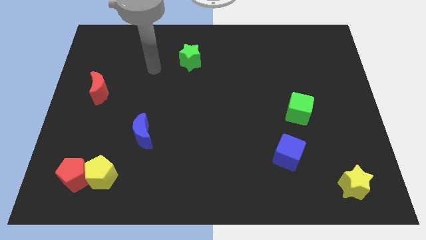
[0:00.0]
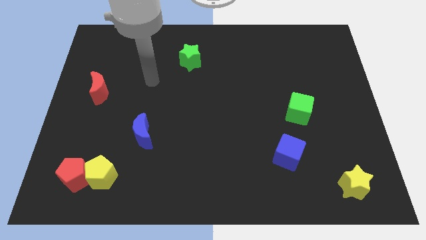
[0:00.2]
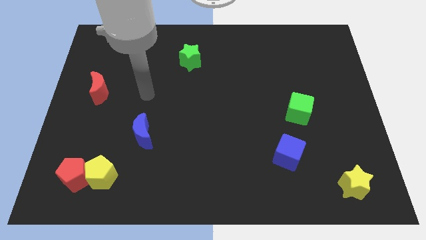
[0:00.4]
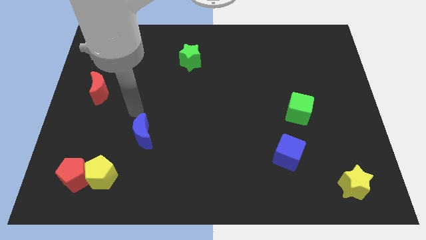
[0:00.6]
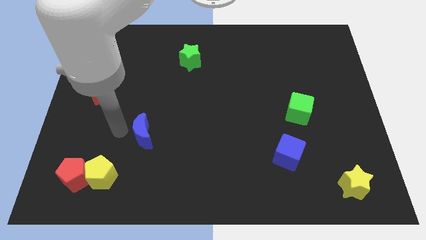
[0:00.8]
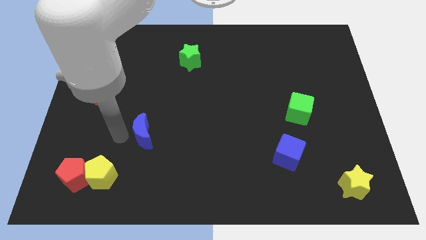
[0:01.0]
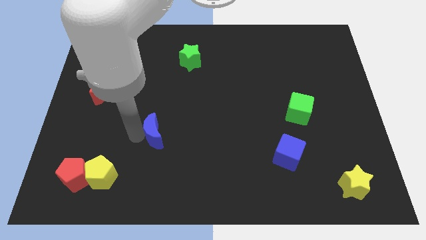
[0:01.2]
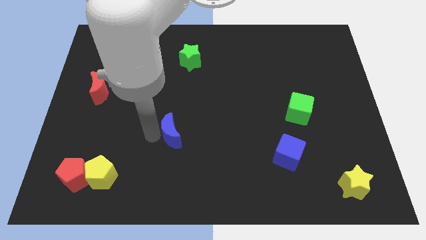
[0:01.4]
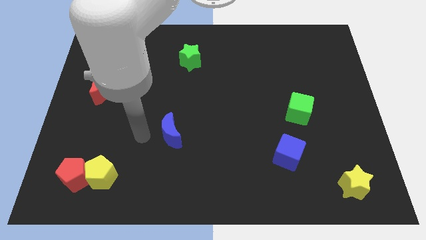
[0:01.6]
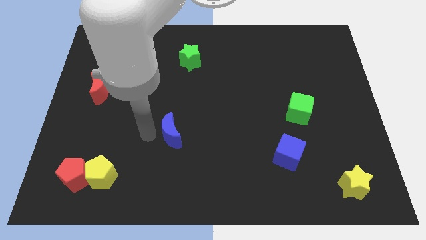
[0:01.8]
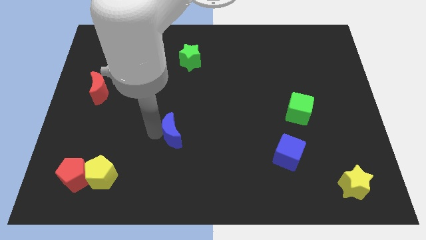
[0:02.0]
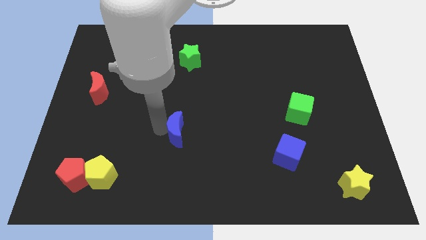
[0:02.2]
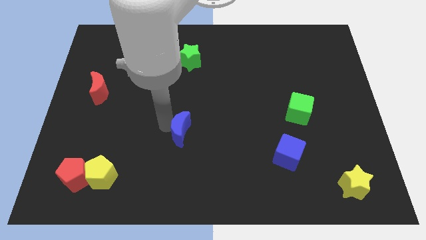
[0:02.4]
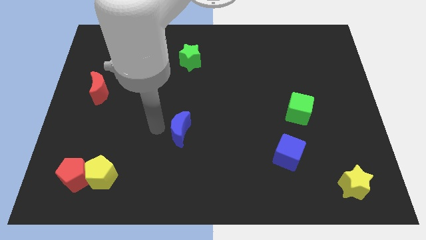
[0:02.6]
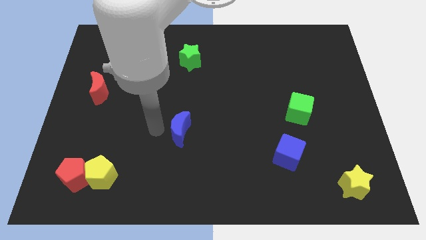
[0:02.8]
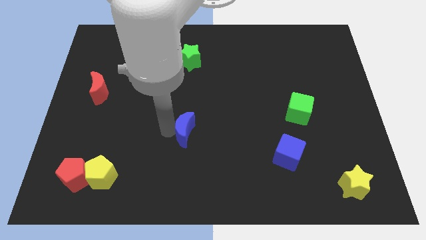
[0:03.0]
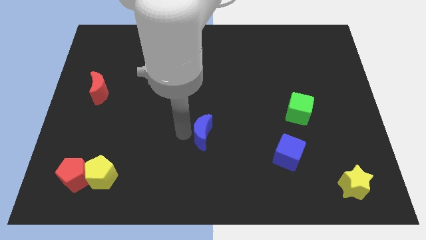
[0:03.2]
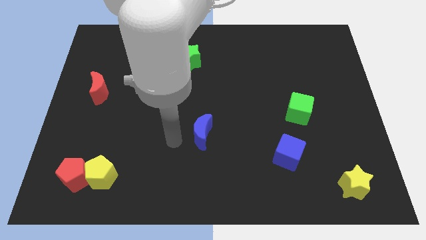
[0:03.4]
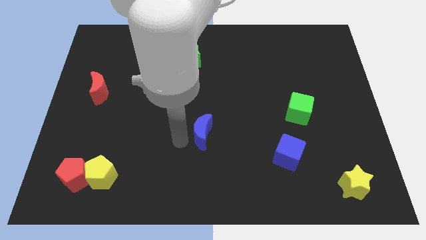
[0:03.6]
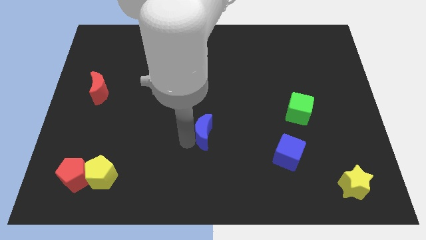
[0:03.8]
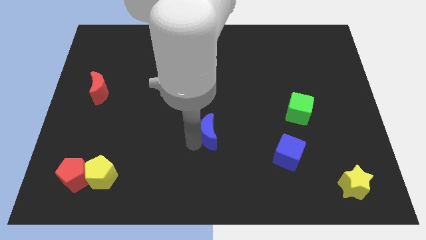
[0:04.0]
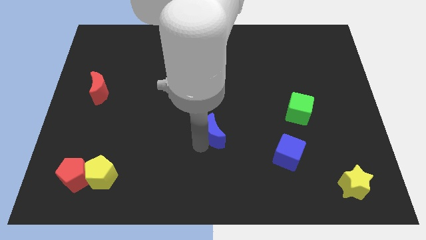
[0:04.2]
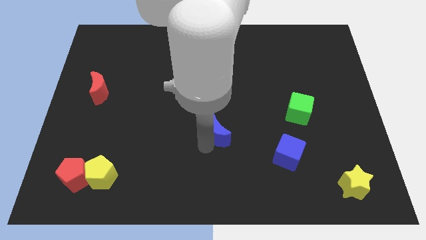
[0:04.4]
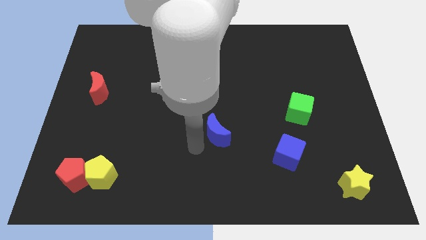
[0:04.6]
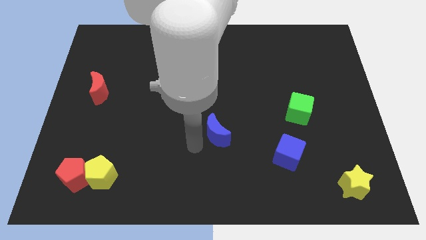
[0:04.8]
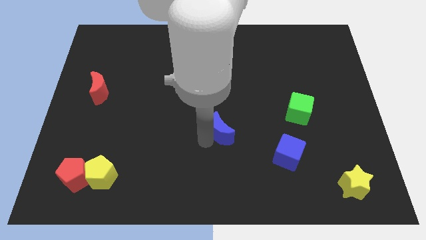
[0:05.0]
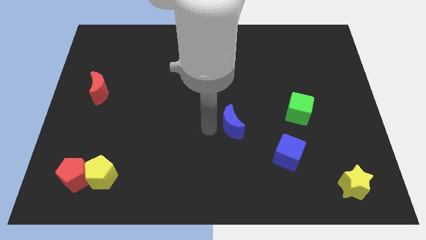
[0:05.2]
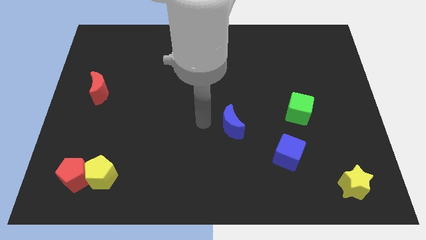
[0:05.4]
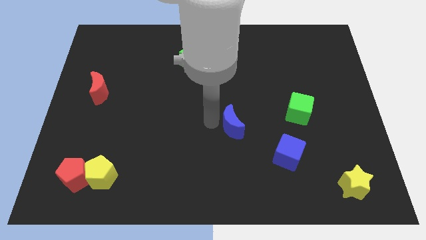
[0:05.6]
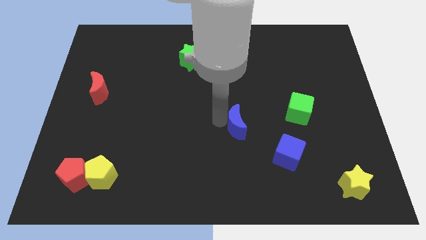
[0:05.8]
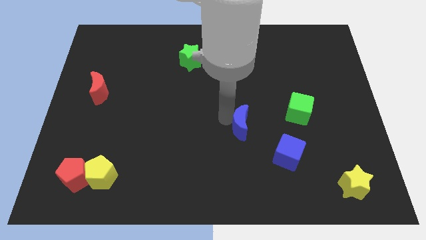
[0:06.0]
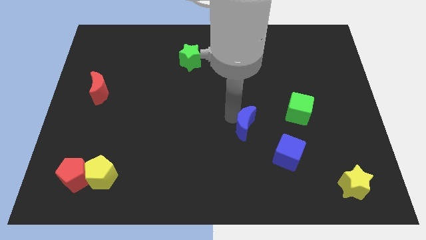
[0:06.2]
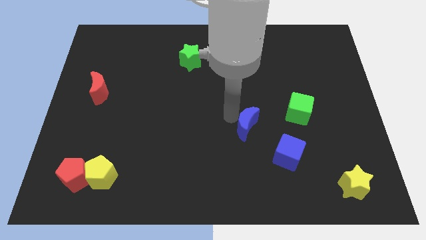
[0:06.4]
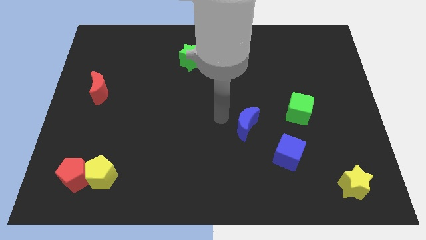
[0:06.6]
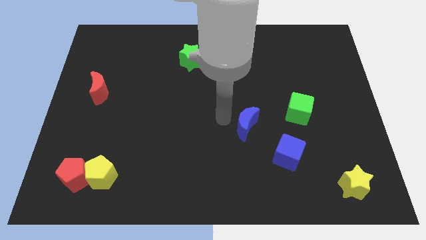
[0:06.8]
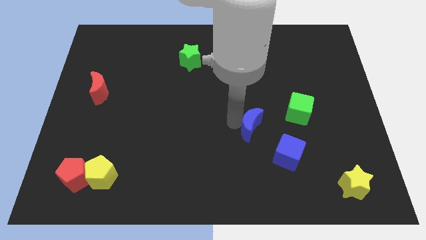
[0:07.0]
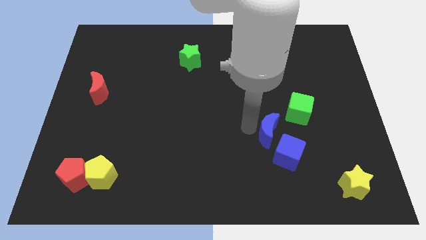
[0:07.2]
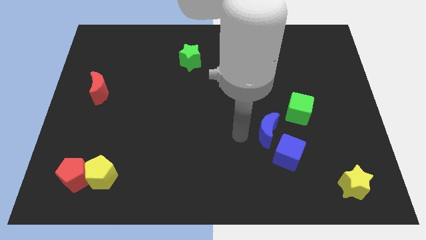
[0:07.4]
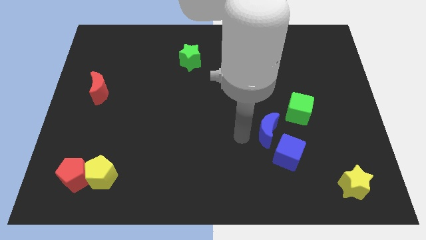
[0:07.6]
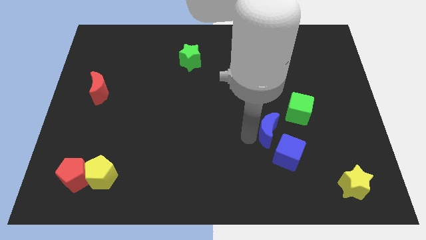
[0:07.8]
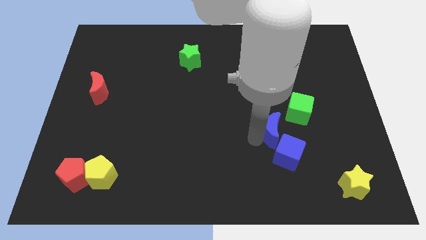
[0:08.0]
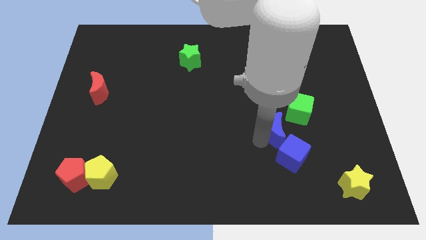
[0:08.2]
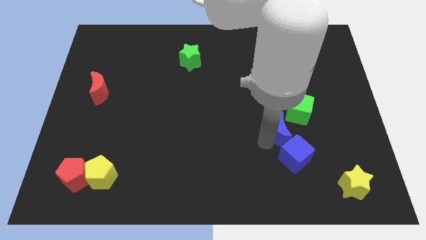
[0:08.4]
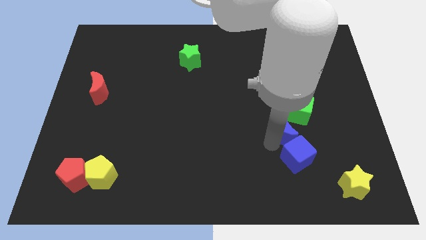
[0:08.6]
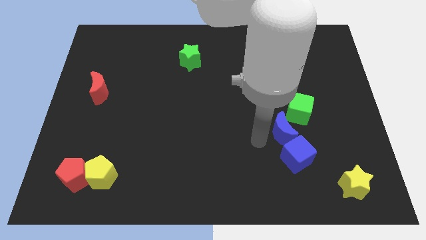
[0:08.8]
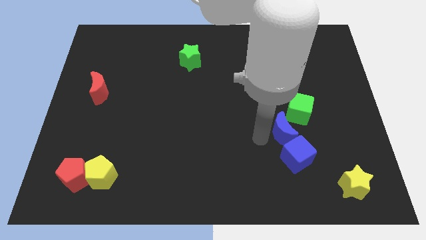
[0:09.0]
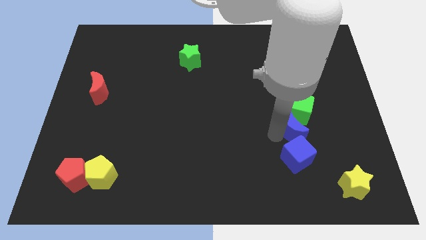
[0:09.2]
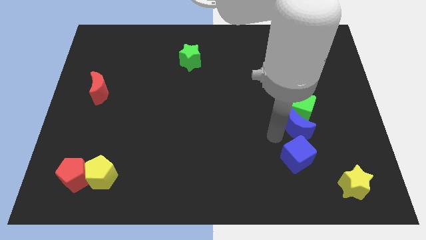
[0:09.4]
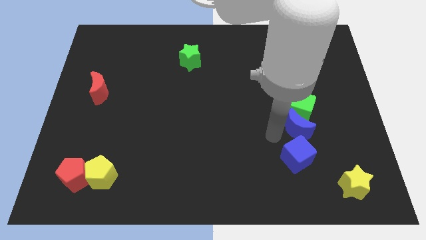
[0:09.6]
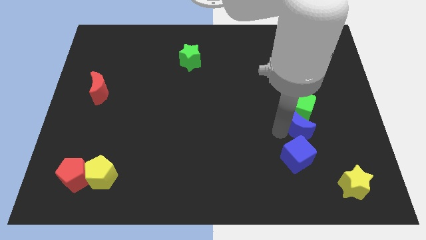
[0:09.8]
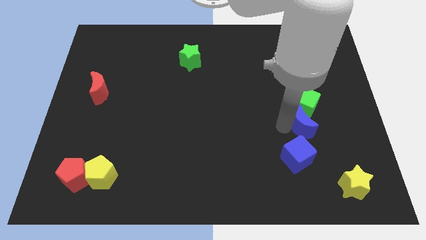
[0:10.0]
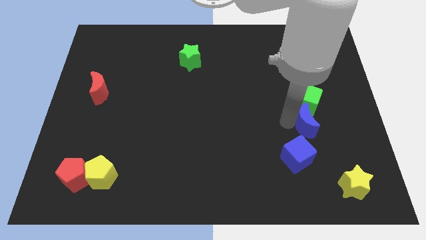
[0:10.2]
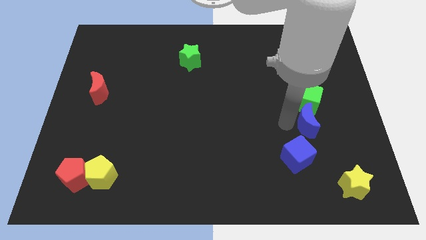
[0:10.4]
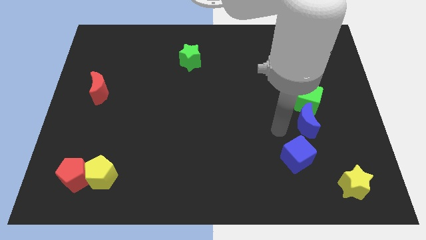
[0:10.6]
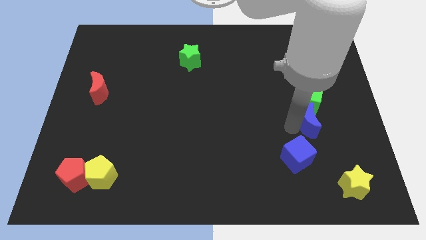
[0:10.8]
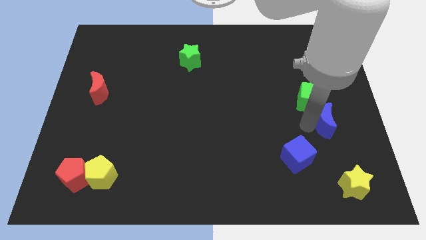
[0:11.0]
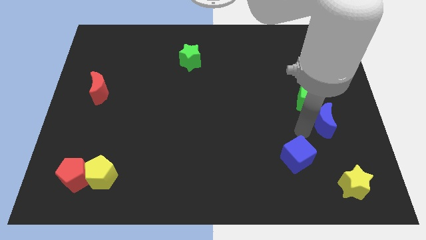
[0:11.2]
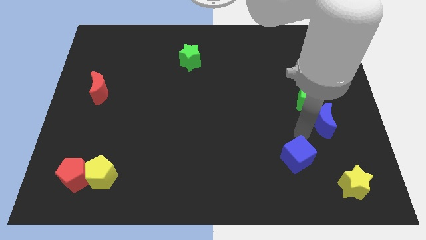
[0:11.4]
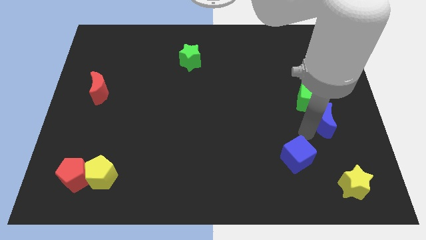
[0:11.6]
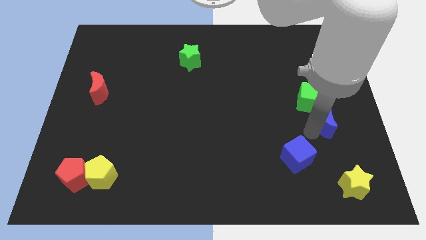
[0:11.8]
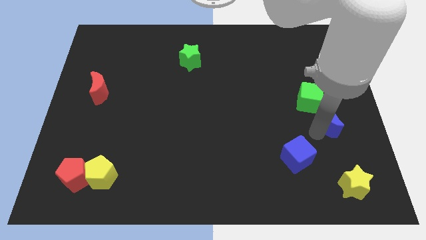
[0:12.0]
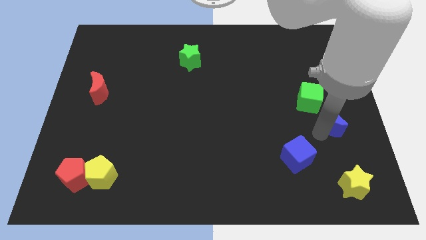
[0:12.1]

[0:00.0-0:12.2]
push the blue moon to the center right

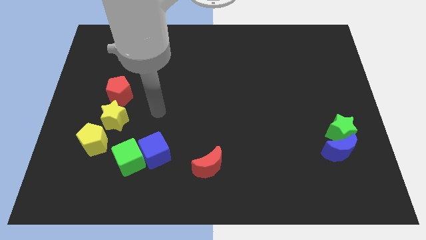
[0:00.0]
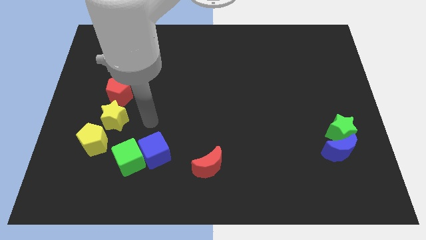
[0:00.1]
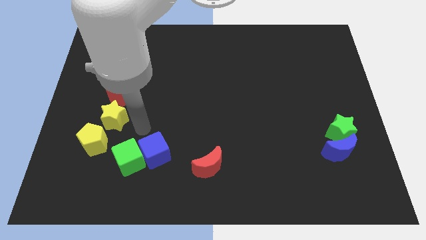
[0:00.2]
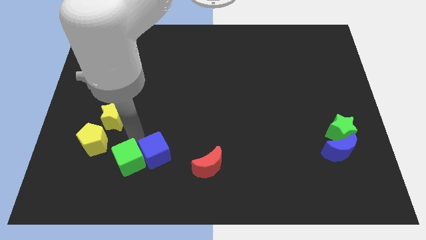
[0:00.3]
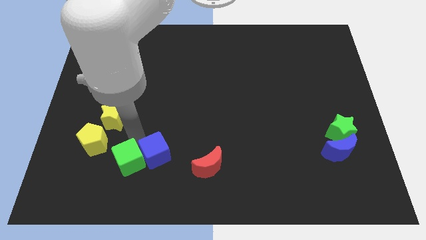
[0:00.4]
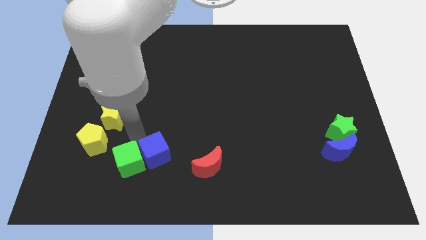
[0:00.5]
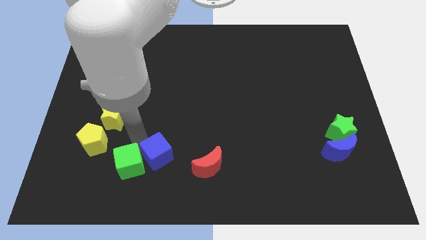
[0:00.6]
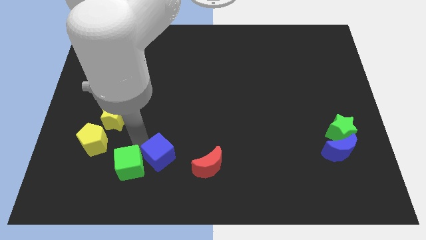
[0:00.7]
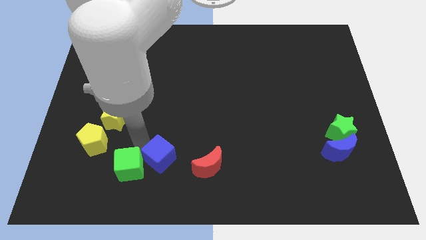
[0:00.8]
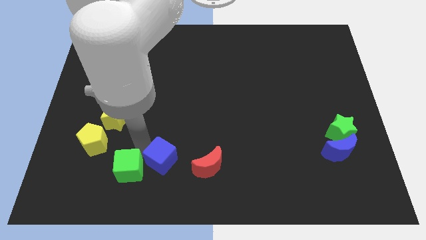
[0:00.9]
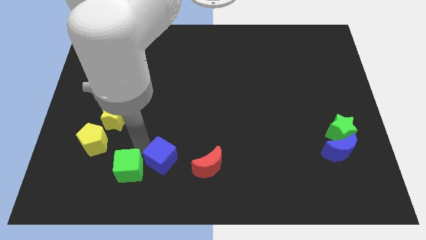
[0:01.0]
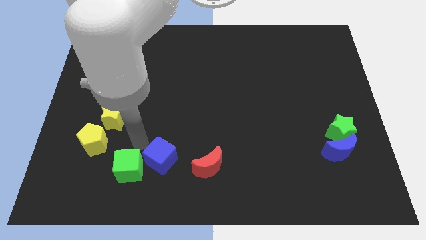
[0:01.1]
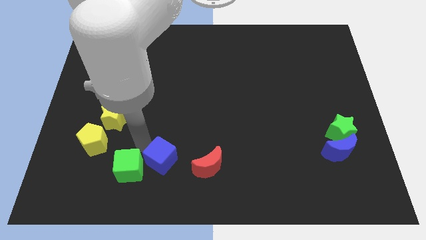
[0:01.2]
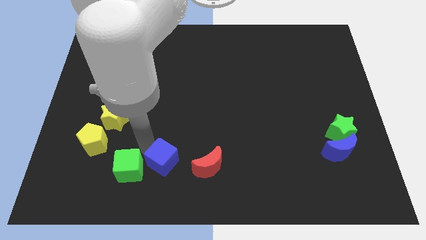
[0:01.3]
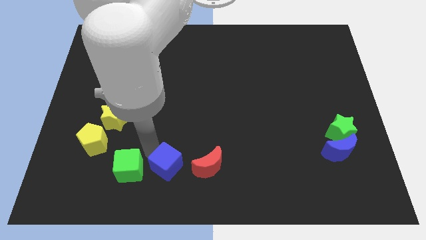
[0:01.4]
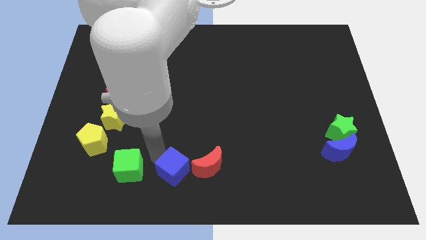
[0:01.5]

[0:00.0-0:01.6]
put the blue cube to the bottom
